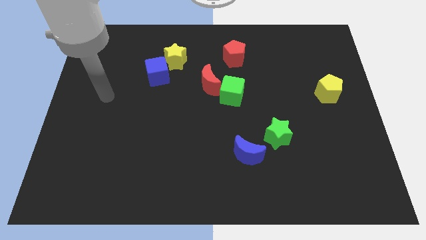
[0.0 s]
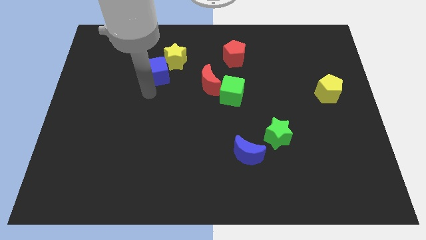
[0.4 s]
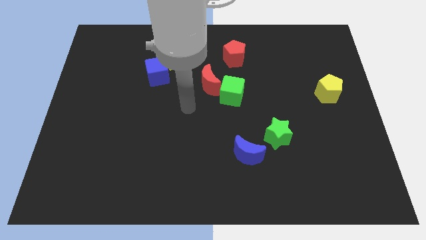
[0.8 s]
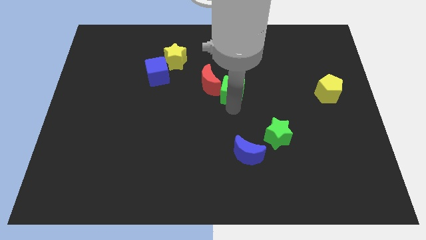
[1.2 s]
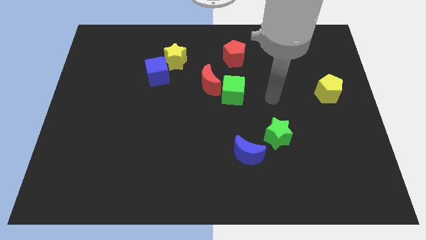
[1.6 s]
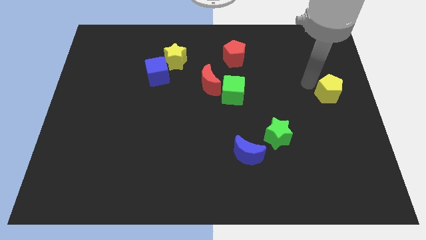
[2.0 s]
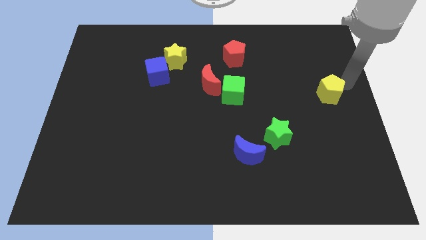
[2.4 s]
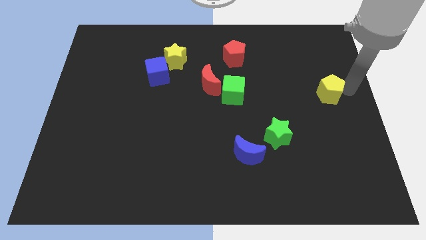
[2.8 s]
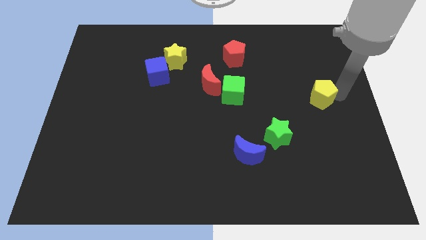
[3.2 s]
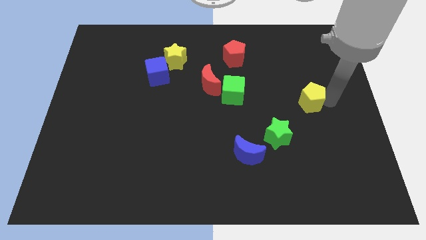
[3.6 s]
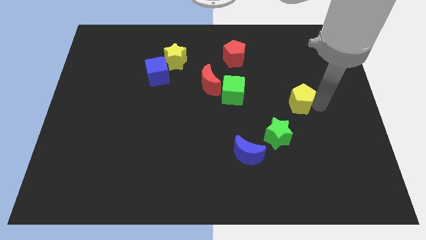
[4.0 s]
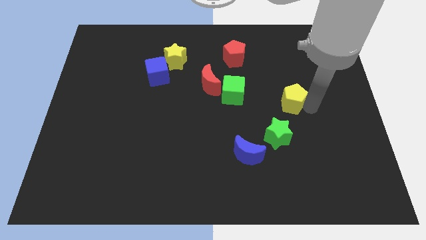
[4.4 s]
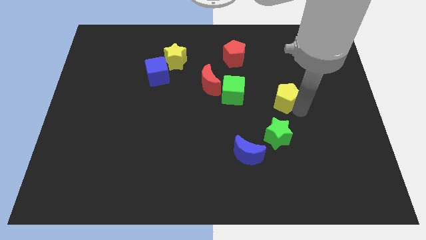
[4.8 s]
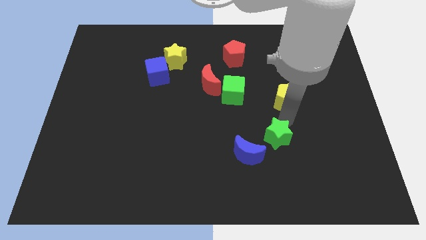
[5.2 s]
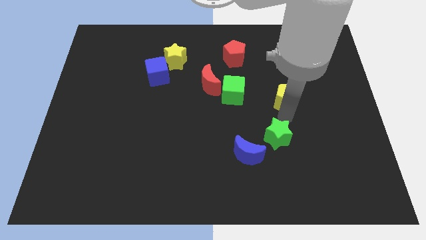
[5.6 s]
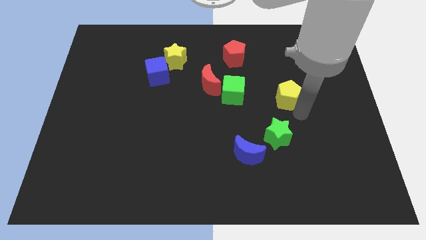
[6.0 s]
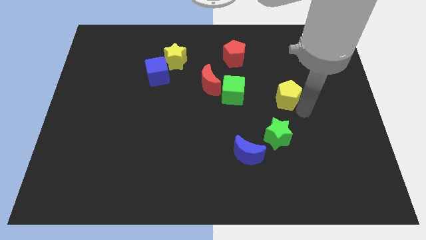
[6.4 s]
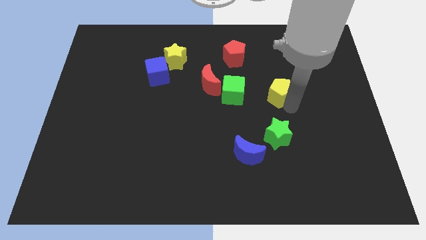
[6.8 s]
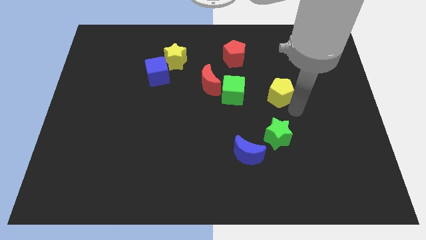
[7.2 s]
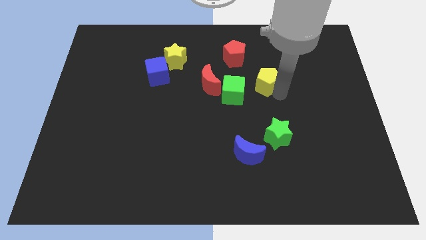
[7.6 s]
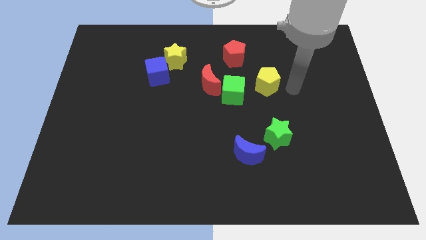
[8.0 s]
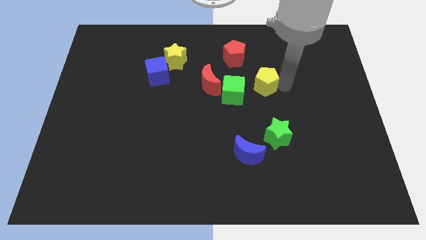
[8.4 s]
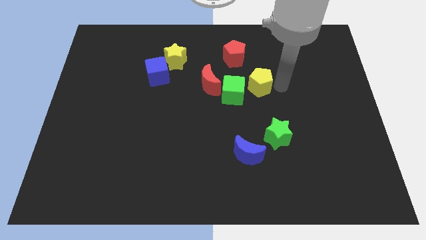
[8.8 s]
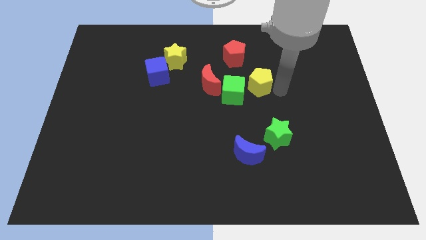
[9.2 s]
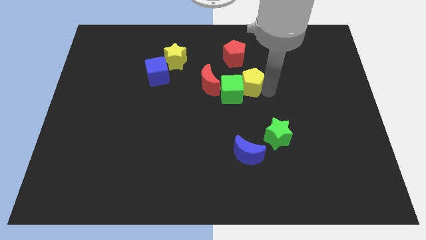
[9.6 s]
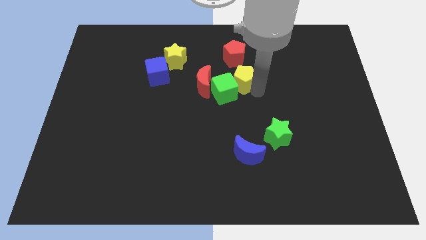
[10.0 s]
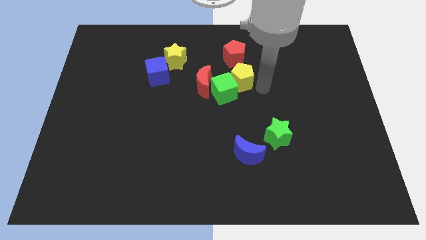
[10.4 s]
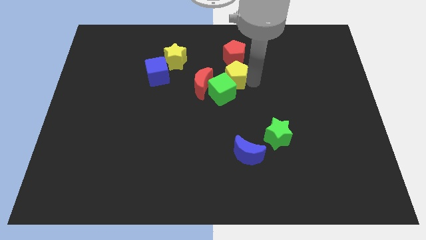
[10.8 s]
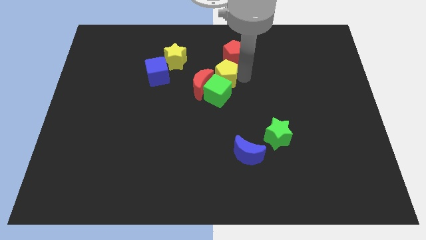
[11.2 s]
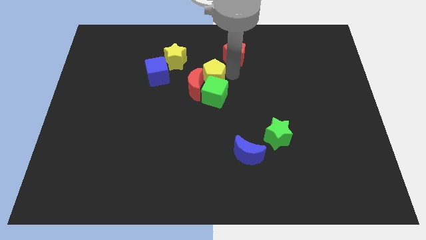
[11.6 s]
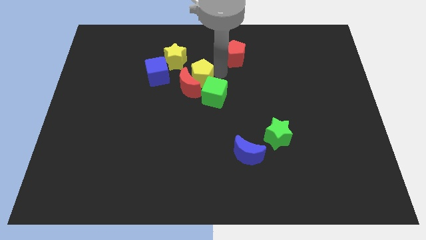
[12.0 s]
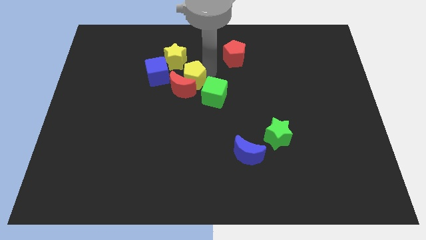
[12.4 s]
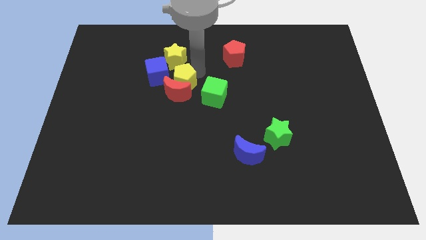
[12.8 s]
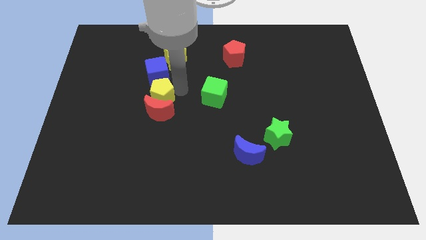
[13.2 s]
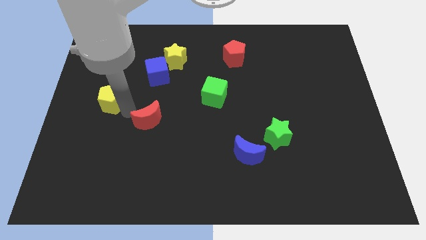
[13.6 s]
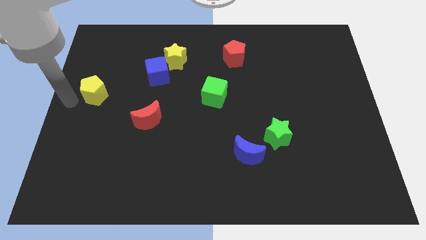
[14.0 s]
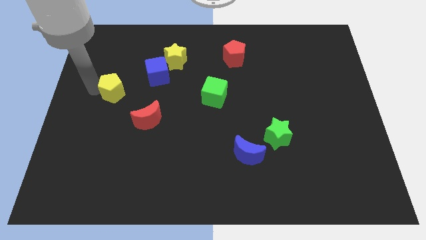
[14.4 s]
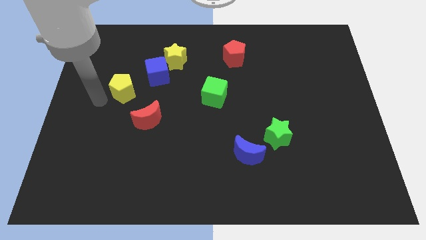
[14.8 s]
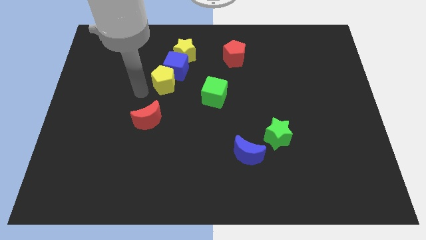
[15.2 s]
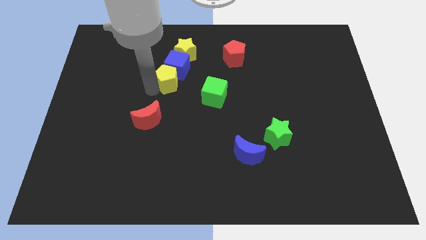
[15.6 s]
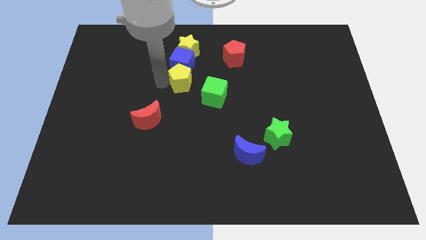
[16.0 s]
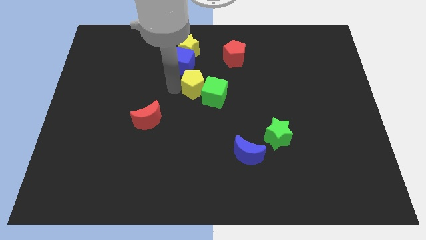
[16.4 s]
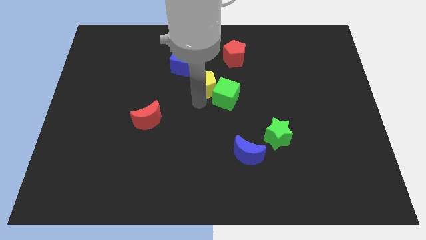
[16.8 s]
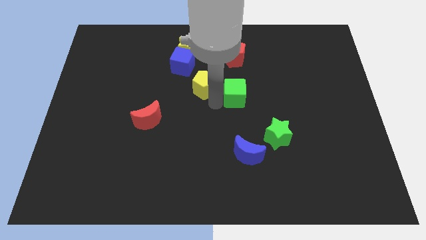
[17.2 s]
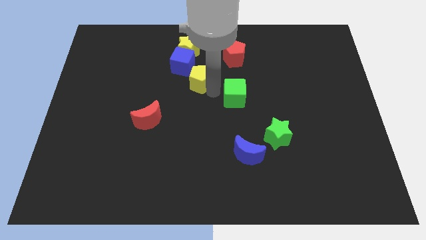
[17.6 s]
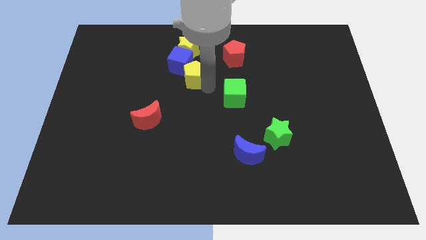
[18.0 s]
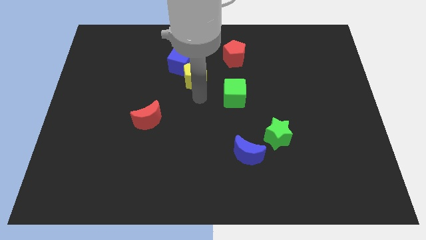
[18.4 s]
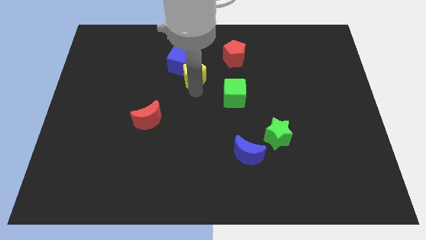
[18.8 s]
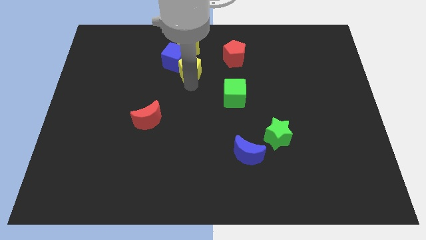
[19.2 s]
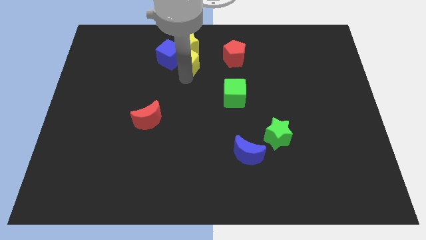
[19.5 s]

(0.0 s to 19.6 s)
push the yellow pentagon next to the yellow star

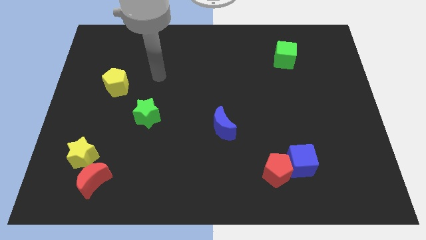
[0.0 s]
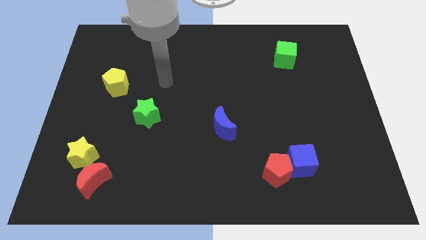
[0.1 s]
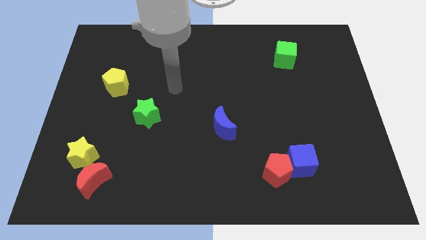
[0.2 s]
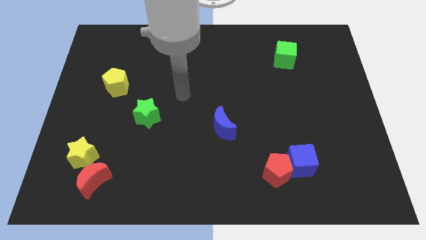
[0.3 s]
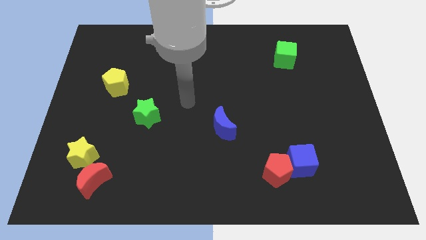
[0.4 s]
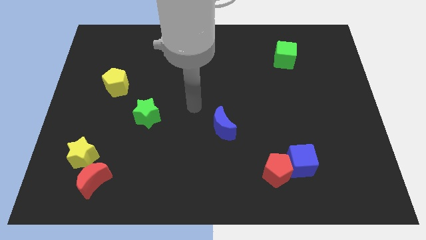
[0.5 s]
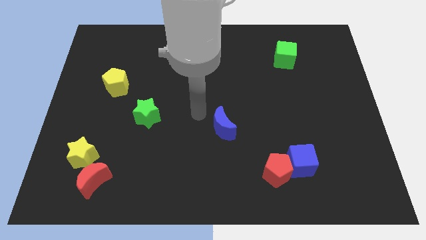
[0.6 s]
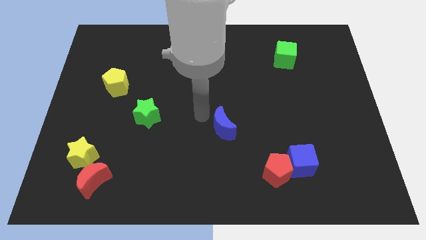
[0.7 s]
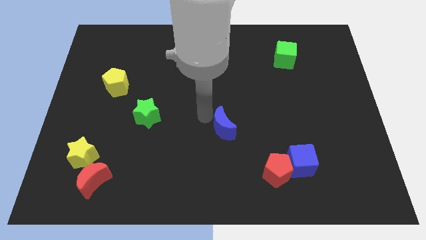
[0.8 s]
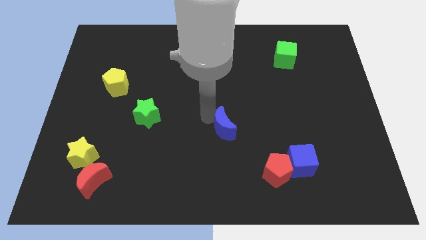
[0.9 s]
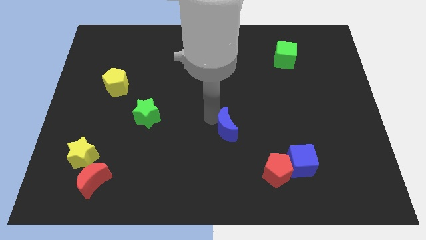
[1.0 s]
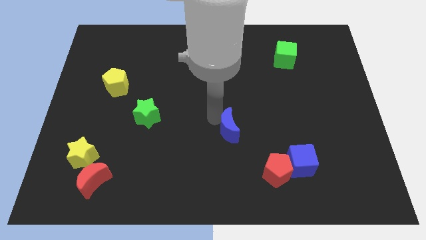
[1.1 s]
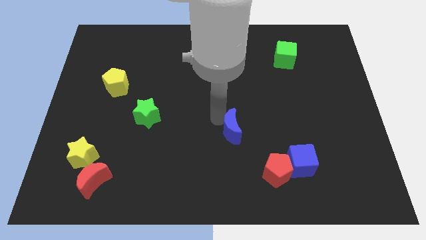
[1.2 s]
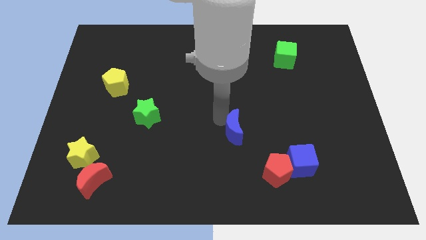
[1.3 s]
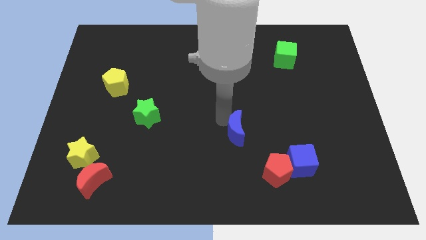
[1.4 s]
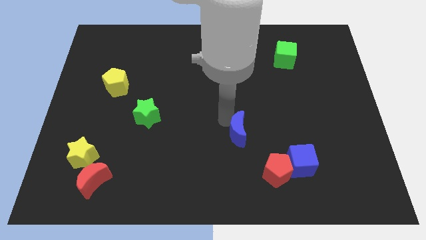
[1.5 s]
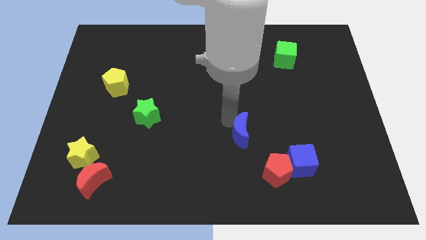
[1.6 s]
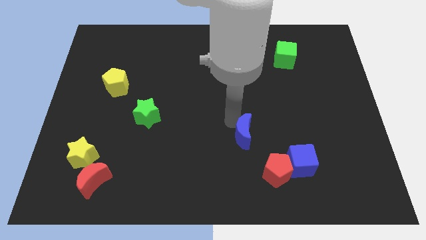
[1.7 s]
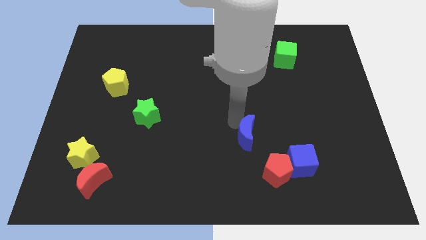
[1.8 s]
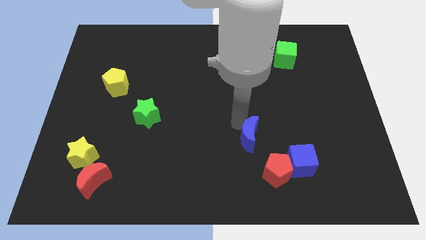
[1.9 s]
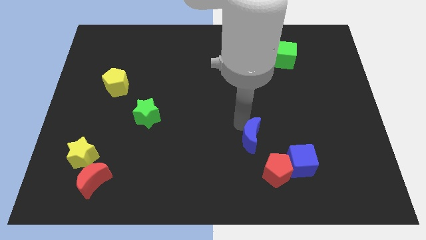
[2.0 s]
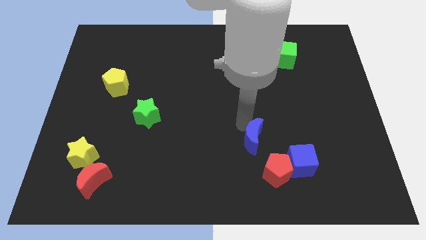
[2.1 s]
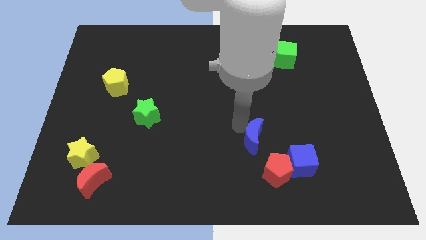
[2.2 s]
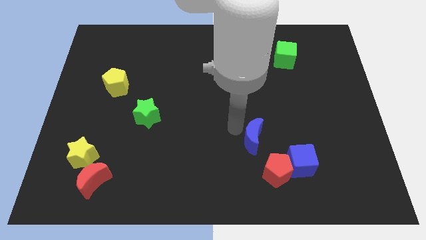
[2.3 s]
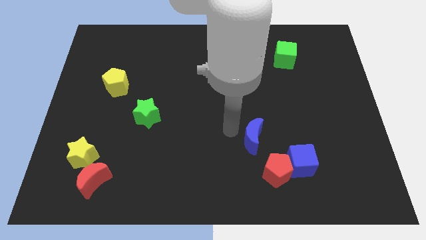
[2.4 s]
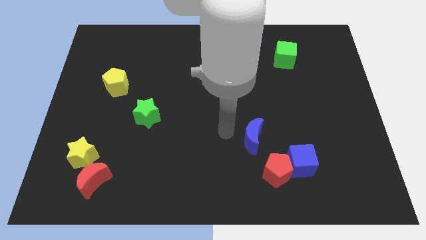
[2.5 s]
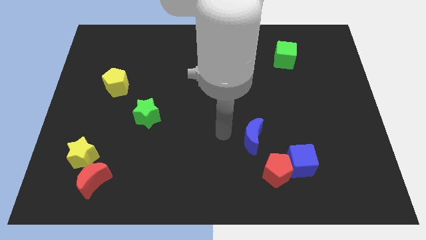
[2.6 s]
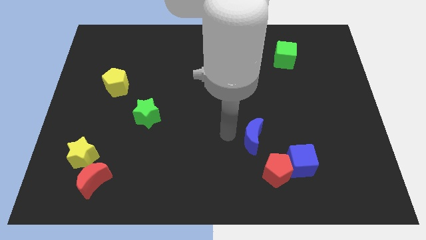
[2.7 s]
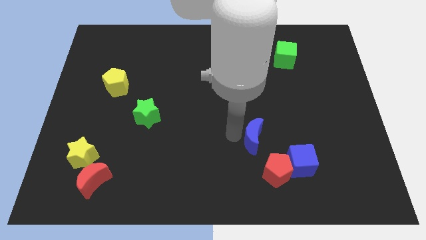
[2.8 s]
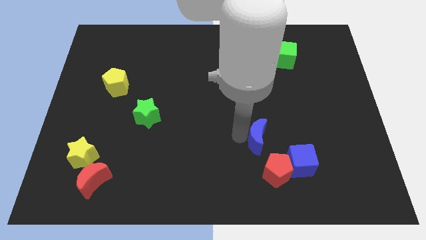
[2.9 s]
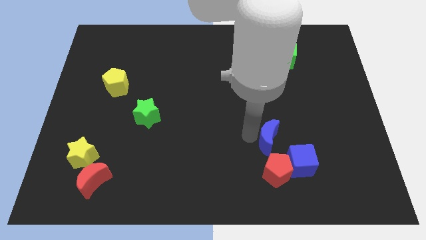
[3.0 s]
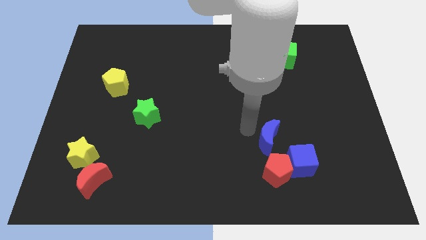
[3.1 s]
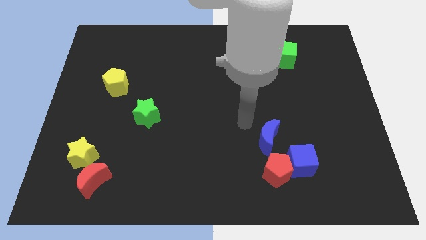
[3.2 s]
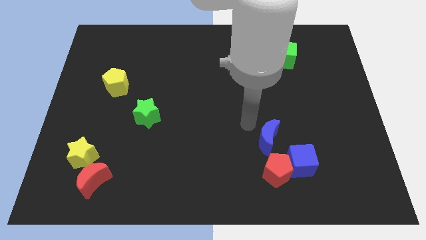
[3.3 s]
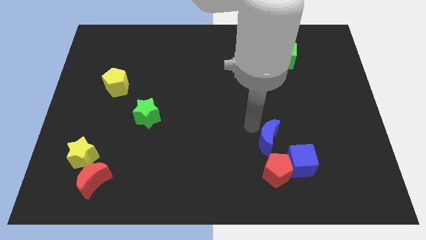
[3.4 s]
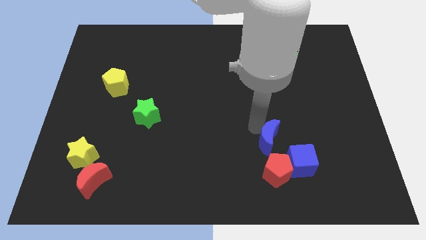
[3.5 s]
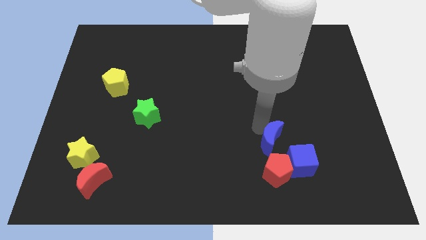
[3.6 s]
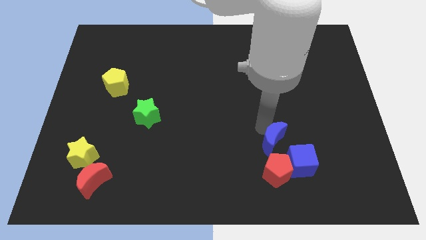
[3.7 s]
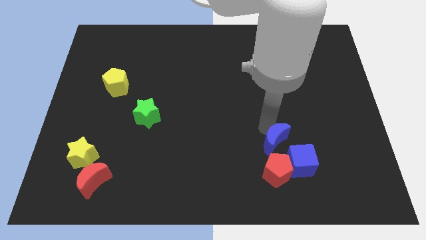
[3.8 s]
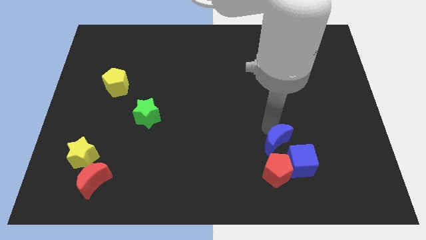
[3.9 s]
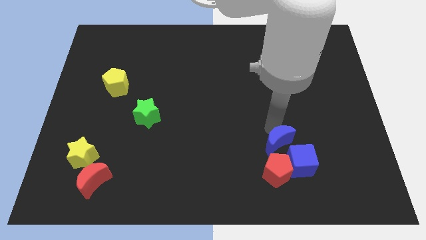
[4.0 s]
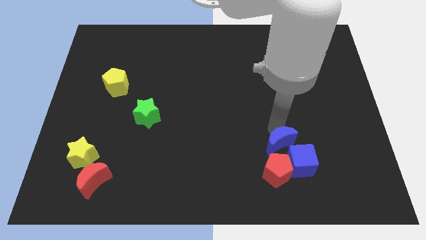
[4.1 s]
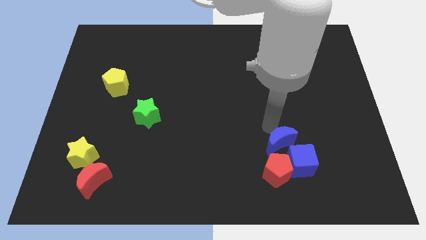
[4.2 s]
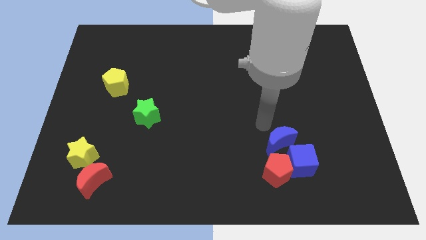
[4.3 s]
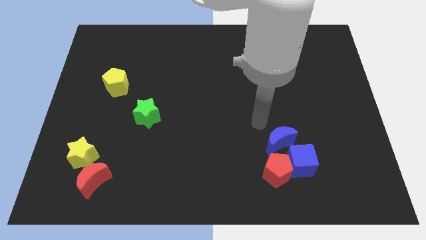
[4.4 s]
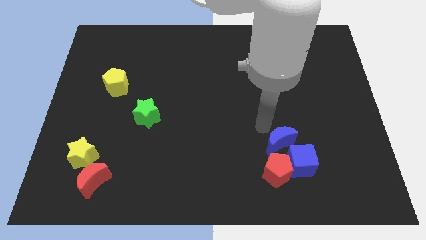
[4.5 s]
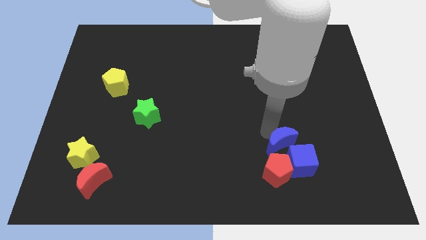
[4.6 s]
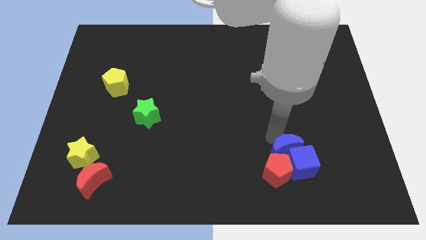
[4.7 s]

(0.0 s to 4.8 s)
push the blue moon towards the blue cube
